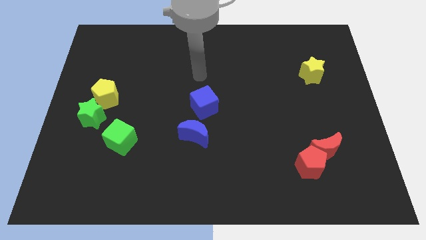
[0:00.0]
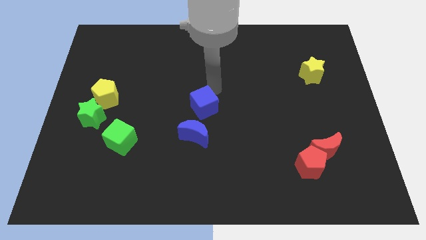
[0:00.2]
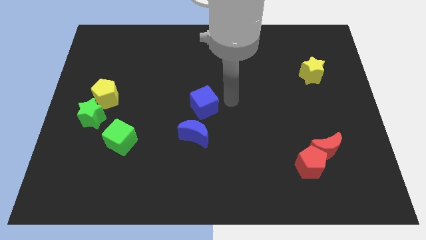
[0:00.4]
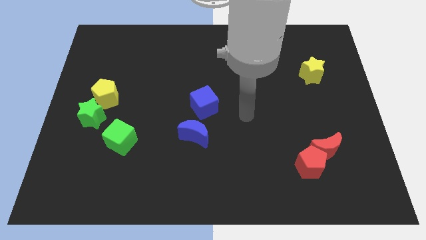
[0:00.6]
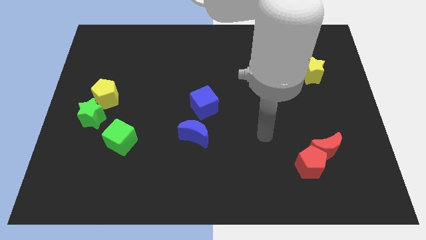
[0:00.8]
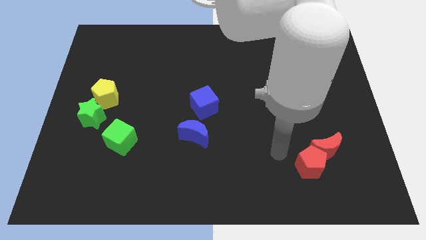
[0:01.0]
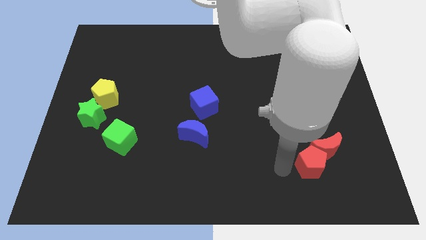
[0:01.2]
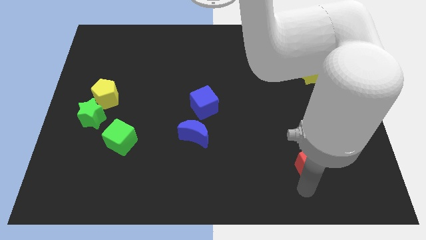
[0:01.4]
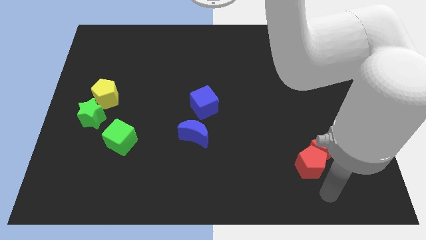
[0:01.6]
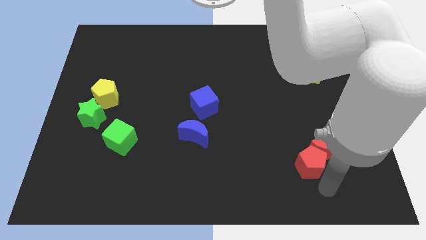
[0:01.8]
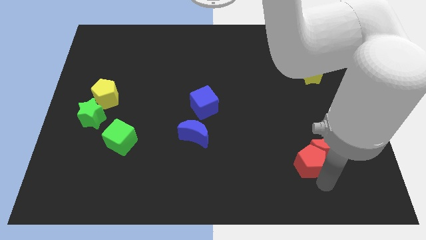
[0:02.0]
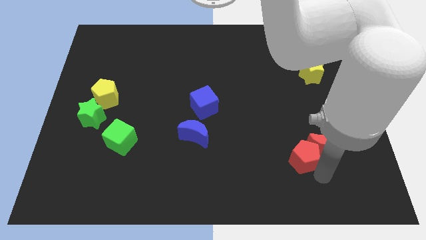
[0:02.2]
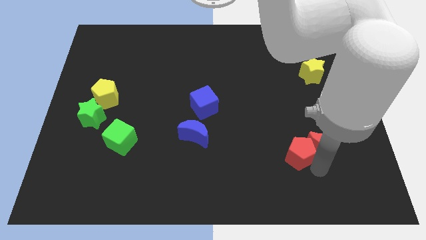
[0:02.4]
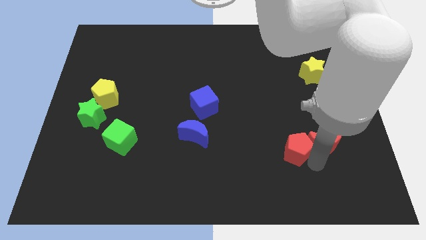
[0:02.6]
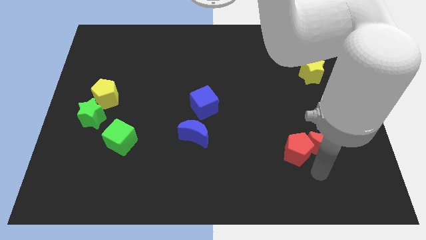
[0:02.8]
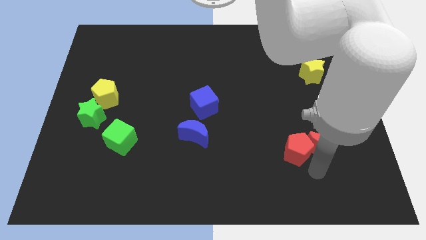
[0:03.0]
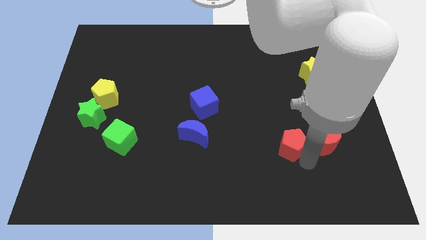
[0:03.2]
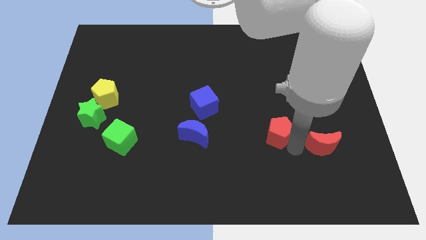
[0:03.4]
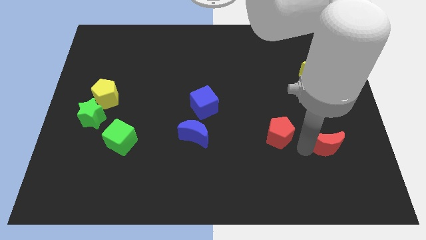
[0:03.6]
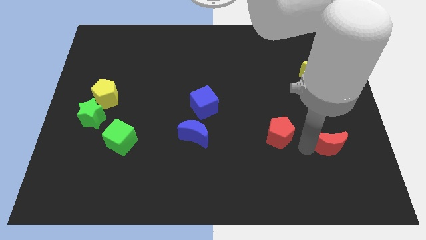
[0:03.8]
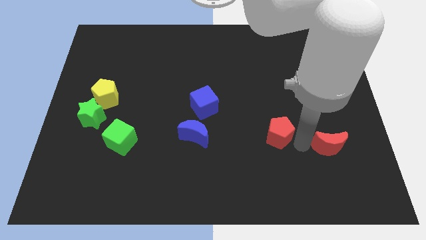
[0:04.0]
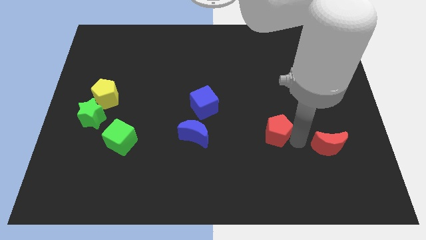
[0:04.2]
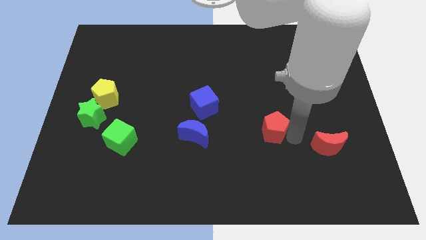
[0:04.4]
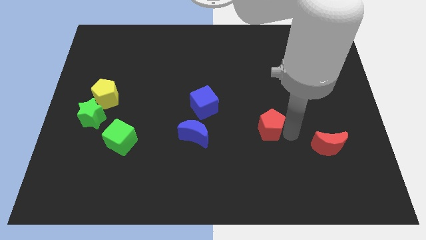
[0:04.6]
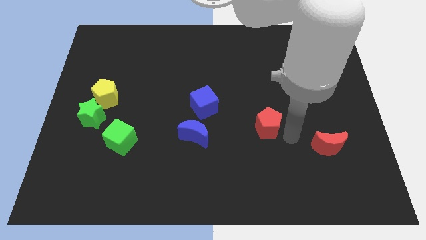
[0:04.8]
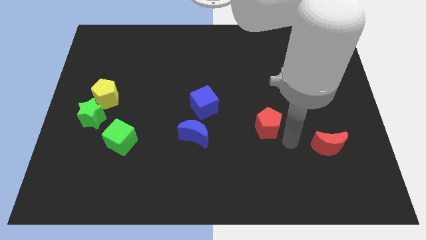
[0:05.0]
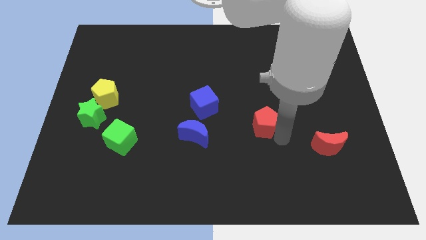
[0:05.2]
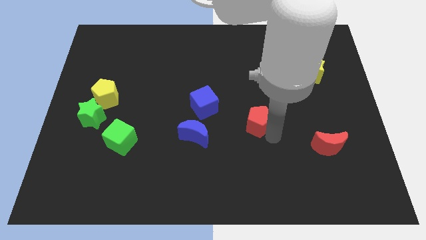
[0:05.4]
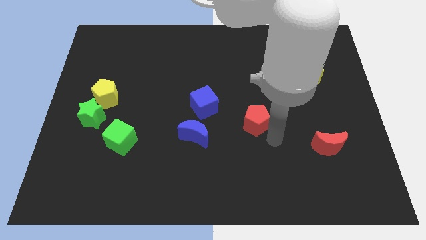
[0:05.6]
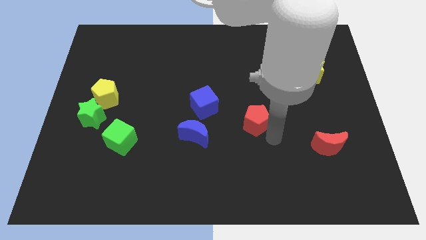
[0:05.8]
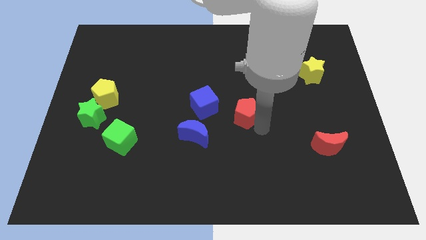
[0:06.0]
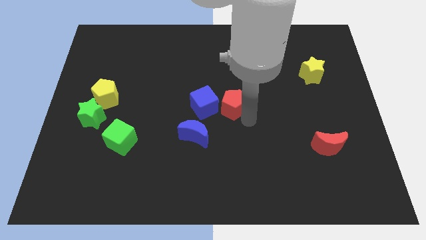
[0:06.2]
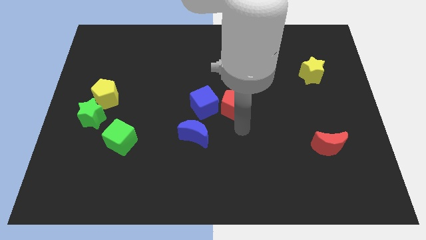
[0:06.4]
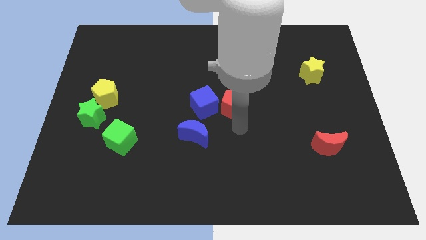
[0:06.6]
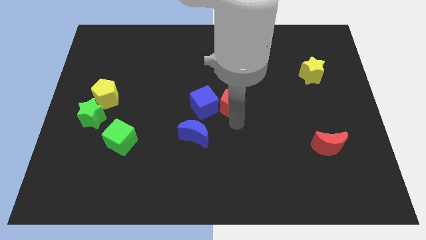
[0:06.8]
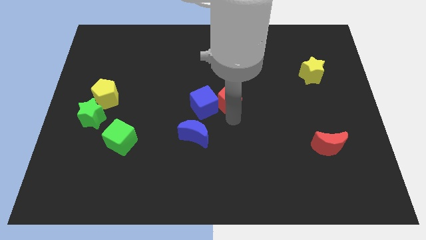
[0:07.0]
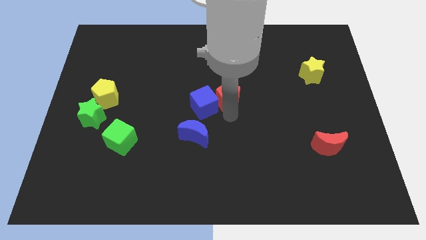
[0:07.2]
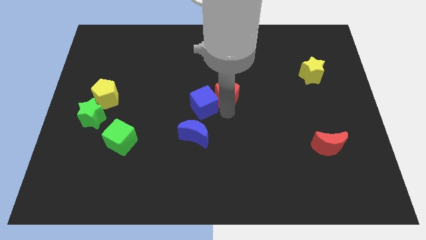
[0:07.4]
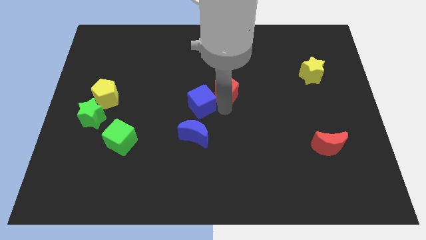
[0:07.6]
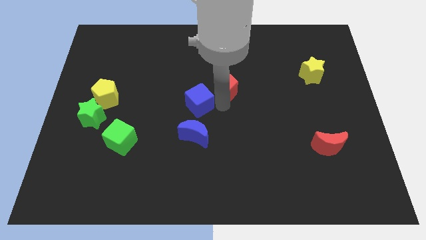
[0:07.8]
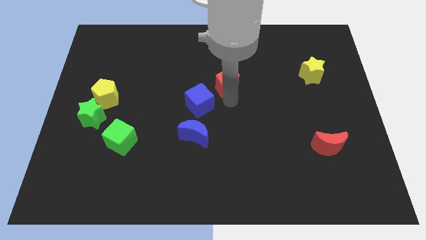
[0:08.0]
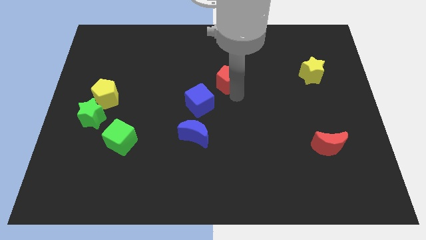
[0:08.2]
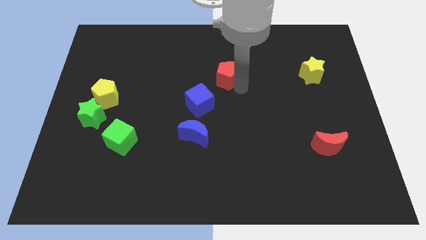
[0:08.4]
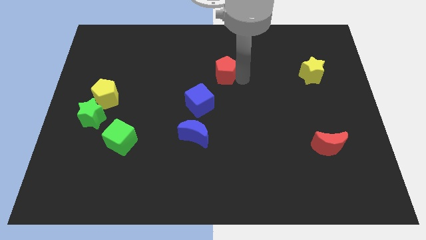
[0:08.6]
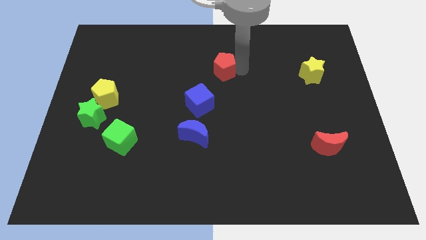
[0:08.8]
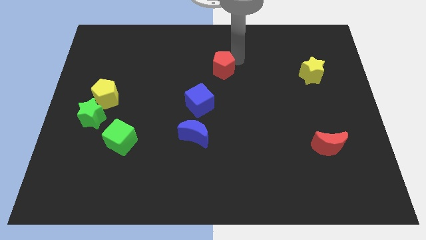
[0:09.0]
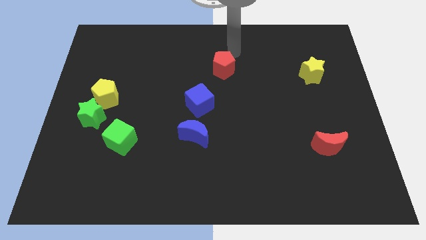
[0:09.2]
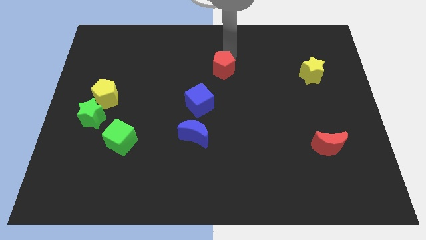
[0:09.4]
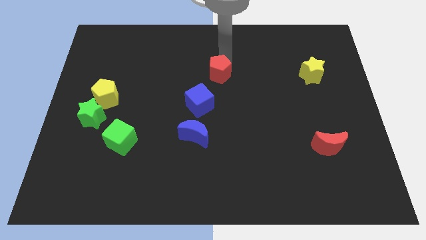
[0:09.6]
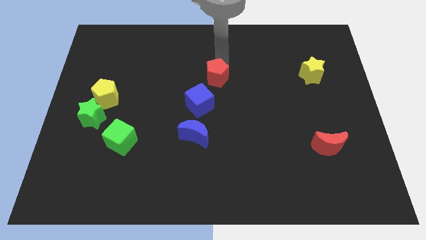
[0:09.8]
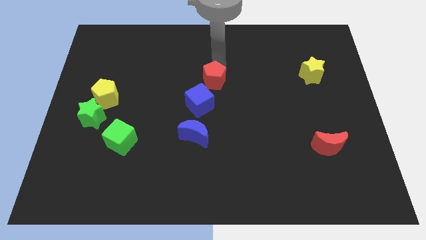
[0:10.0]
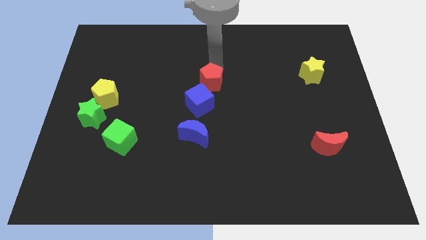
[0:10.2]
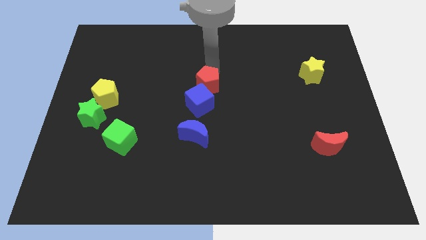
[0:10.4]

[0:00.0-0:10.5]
slide the red pentagon above the blue moon

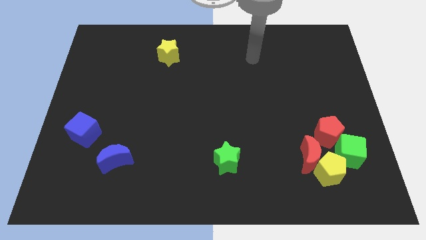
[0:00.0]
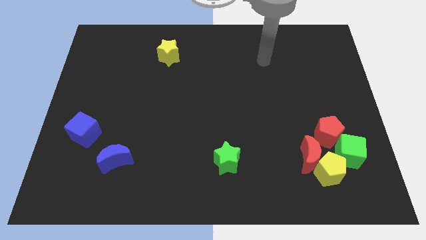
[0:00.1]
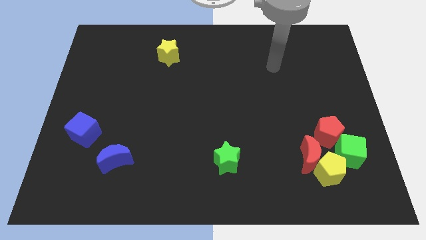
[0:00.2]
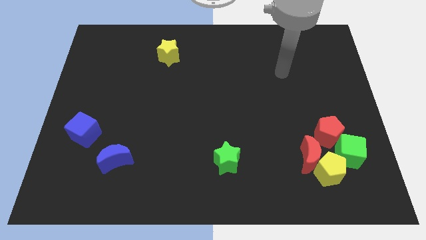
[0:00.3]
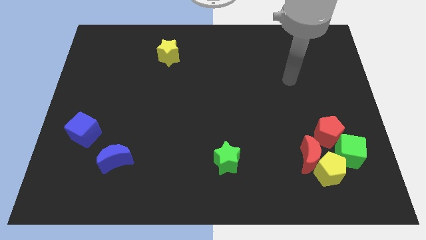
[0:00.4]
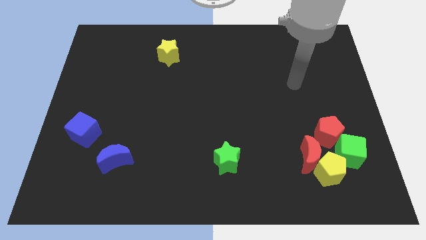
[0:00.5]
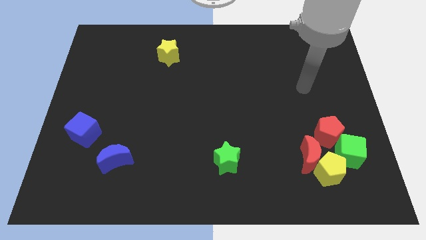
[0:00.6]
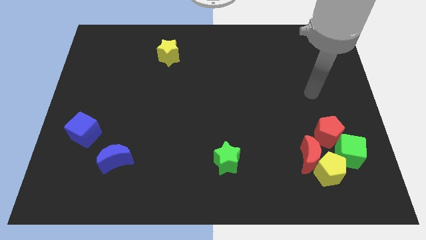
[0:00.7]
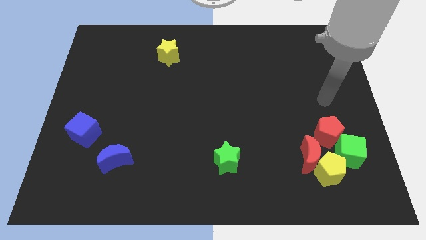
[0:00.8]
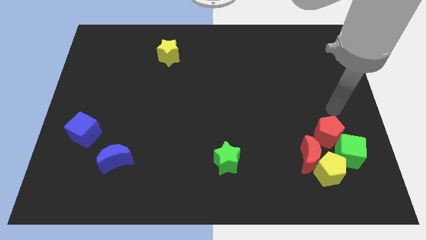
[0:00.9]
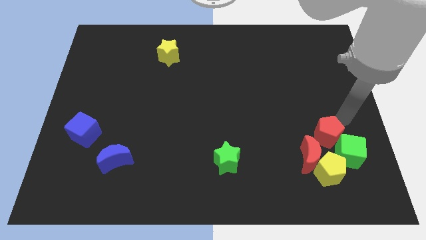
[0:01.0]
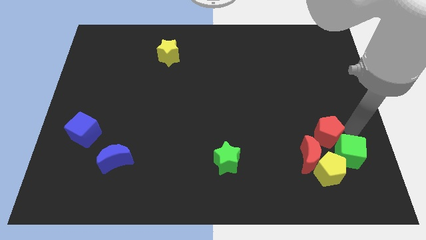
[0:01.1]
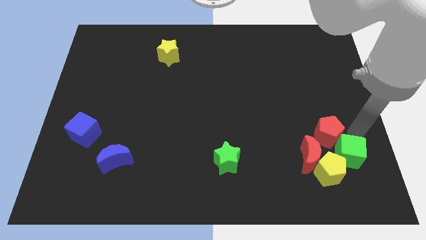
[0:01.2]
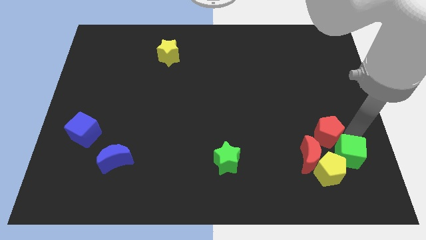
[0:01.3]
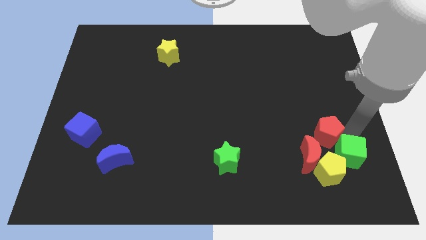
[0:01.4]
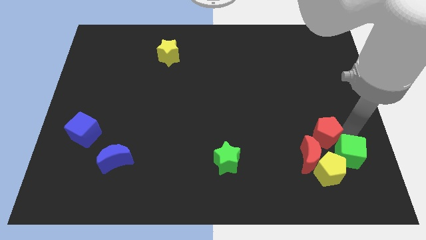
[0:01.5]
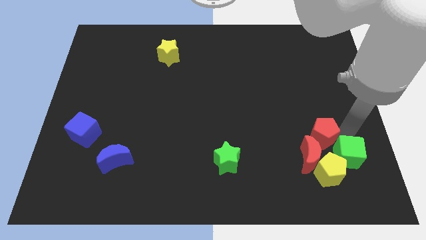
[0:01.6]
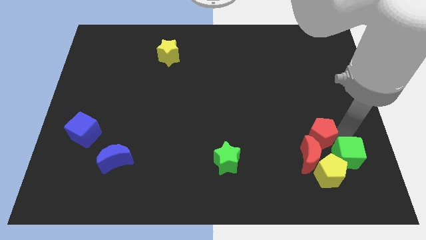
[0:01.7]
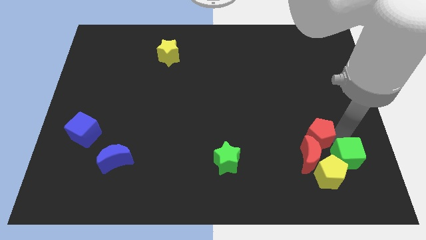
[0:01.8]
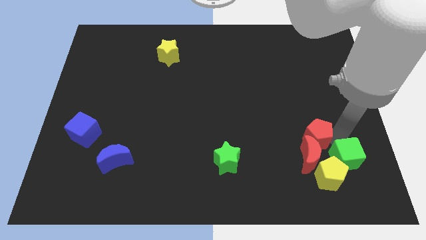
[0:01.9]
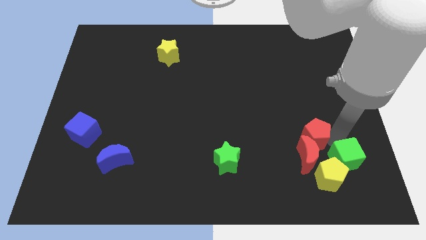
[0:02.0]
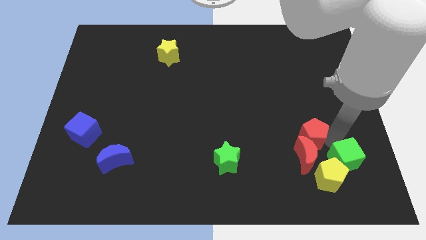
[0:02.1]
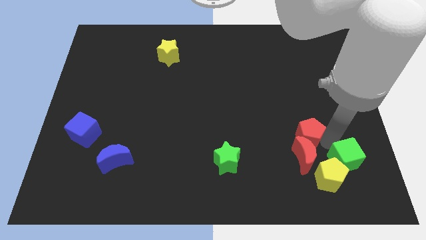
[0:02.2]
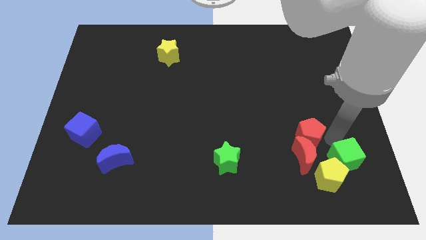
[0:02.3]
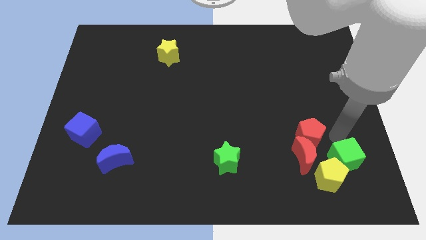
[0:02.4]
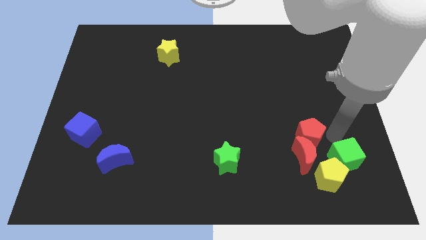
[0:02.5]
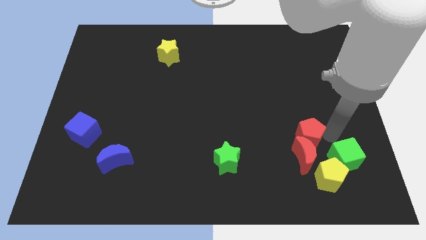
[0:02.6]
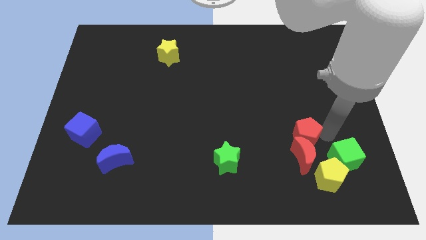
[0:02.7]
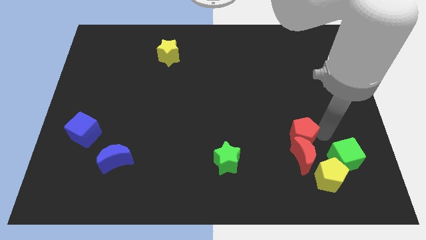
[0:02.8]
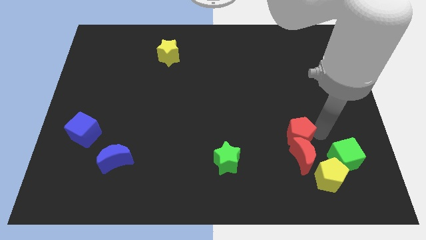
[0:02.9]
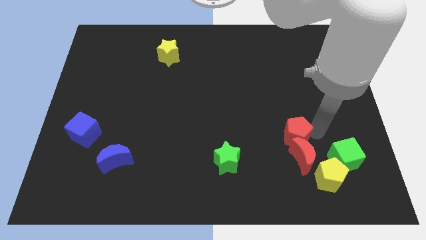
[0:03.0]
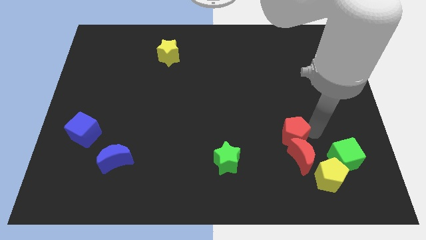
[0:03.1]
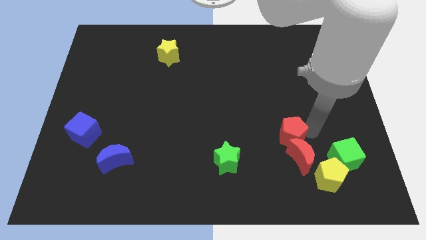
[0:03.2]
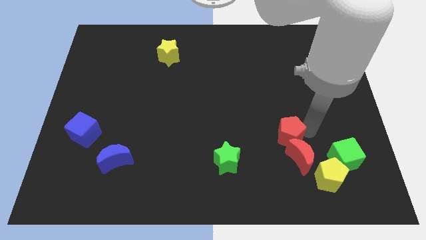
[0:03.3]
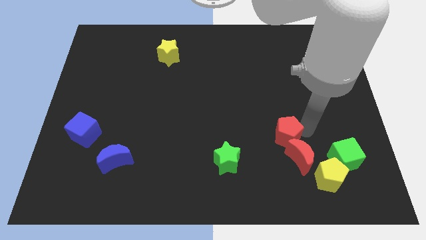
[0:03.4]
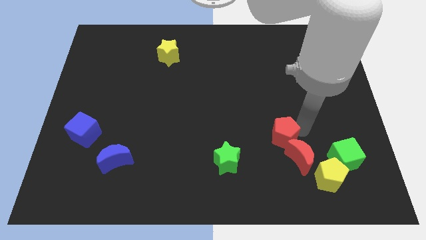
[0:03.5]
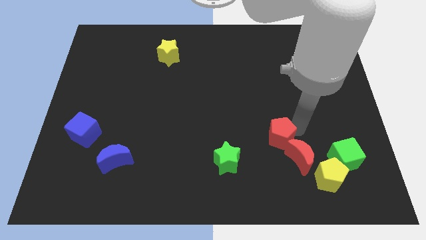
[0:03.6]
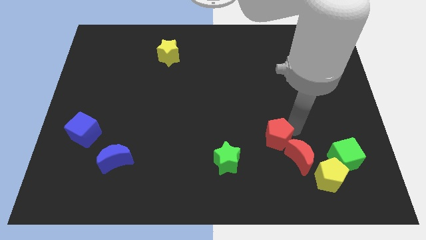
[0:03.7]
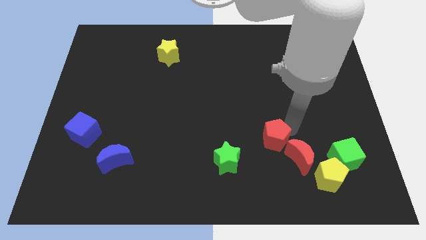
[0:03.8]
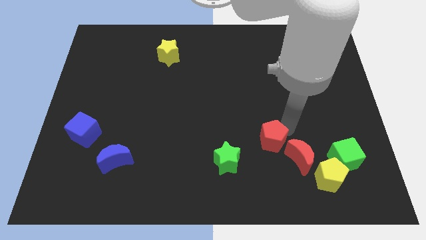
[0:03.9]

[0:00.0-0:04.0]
move the red pentagon to the top right of the green star
